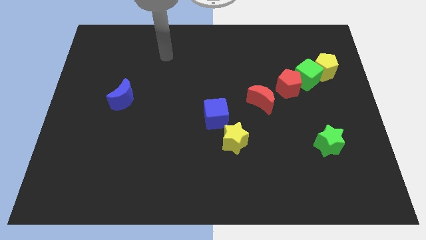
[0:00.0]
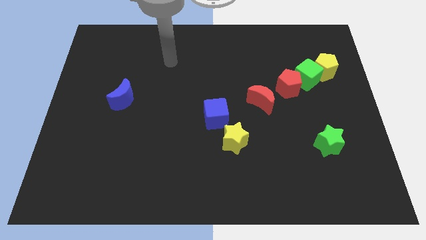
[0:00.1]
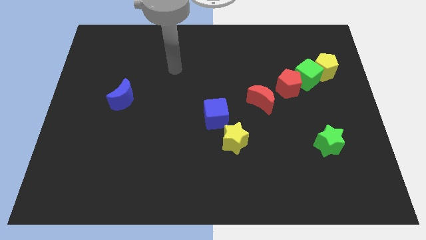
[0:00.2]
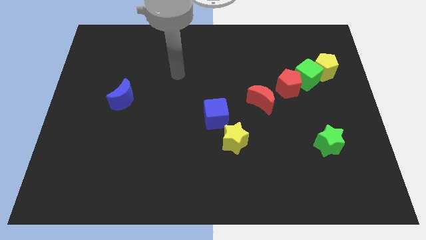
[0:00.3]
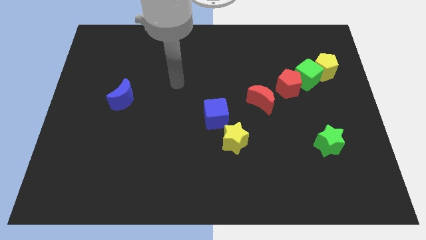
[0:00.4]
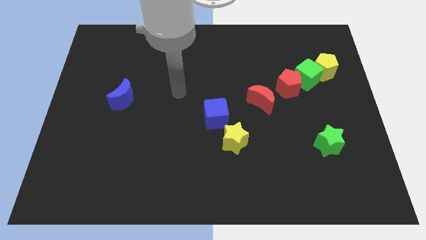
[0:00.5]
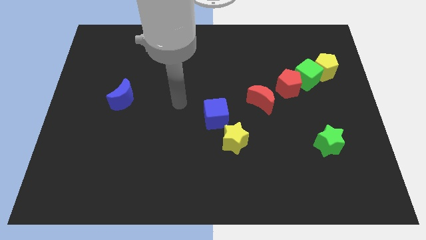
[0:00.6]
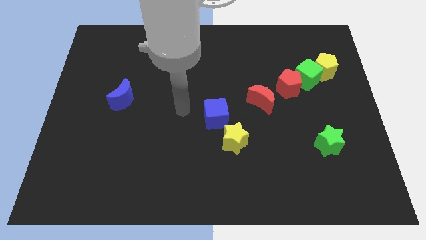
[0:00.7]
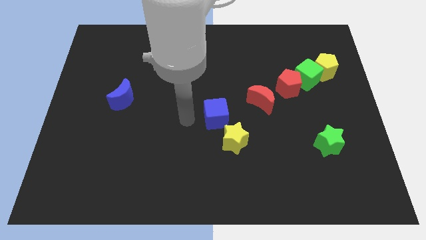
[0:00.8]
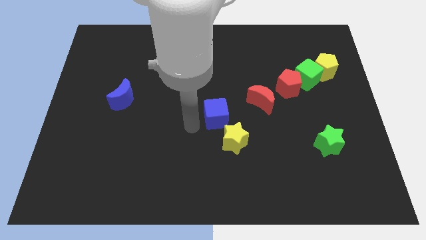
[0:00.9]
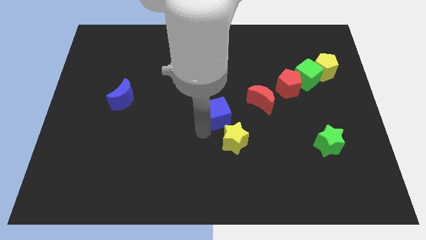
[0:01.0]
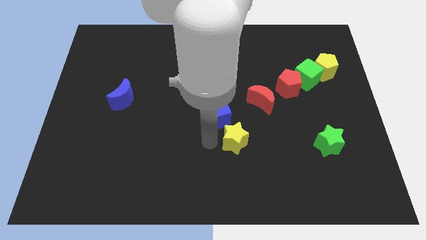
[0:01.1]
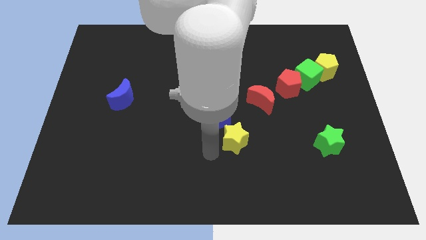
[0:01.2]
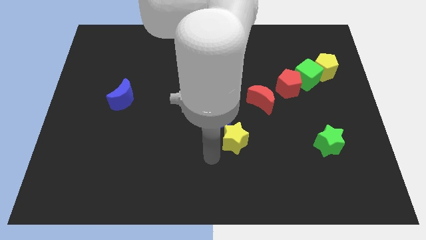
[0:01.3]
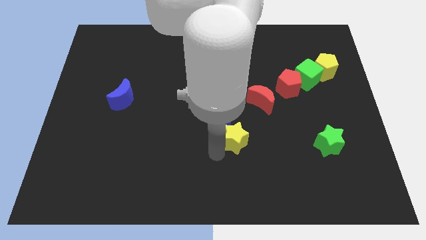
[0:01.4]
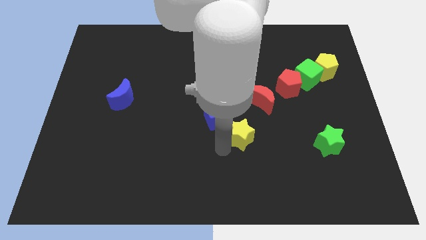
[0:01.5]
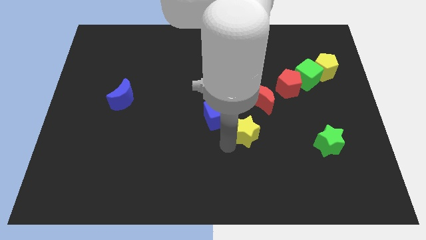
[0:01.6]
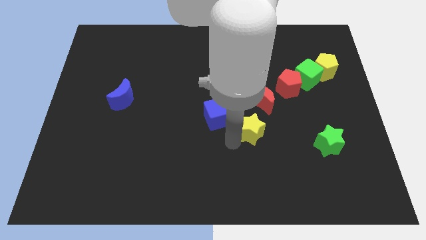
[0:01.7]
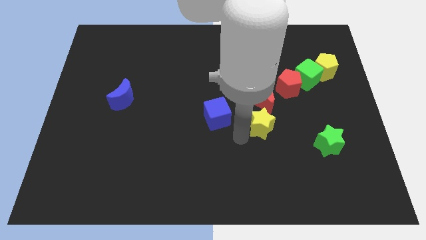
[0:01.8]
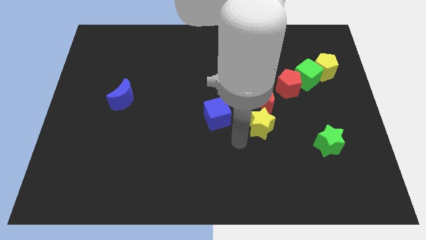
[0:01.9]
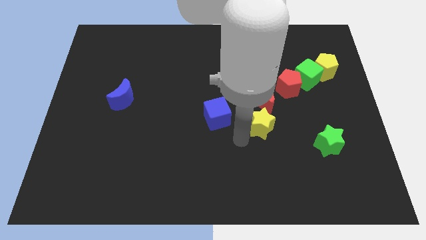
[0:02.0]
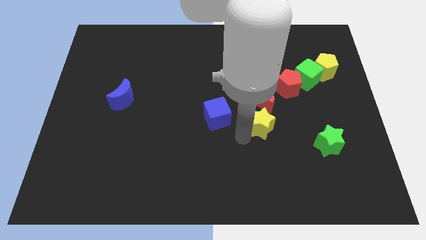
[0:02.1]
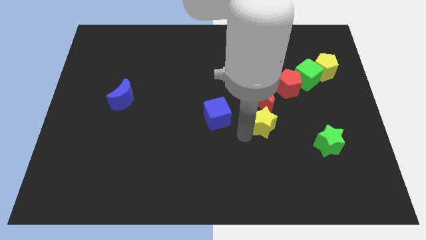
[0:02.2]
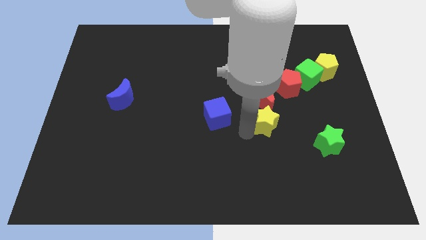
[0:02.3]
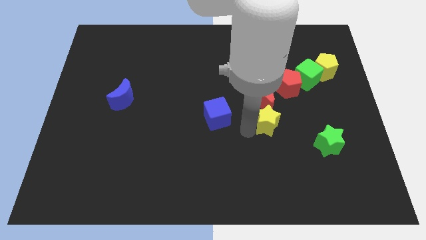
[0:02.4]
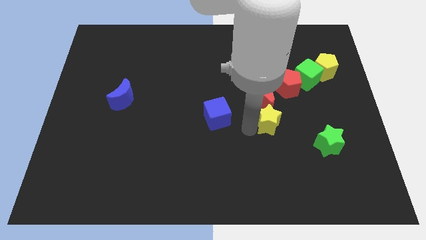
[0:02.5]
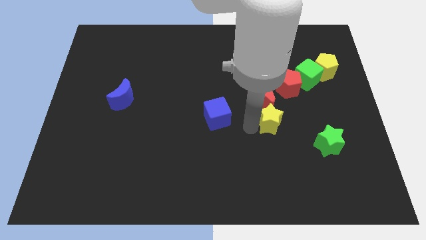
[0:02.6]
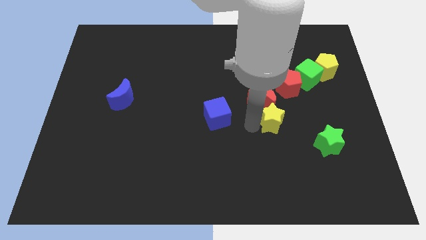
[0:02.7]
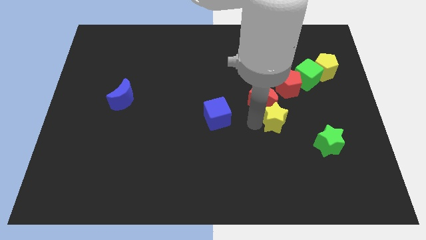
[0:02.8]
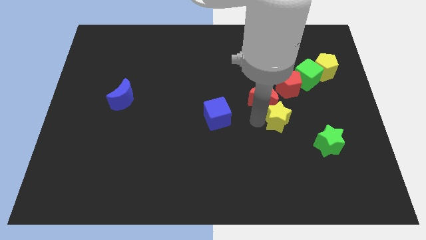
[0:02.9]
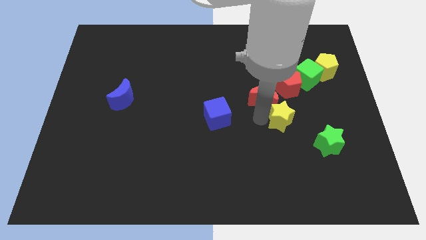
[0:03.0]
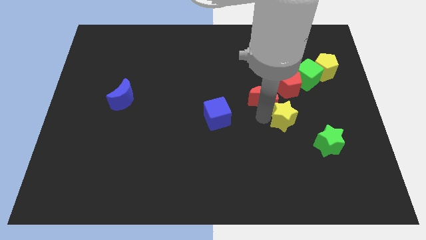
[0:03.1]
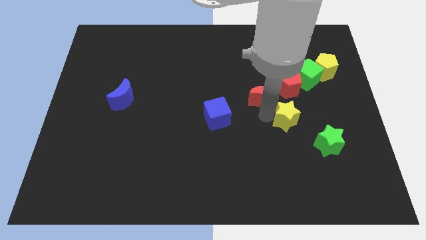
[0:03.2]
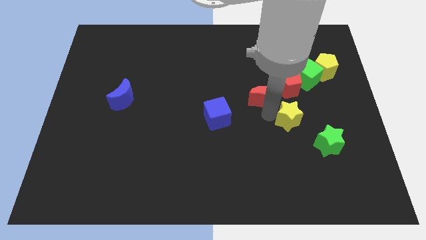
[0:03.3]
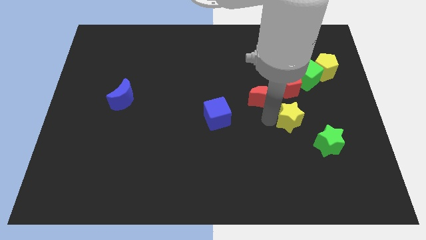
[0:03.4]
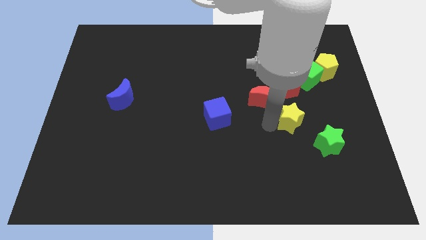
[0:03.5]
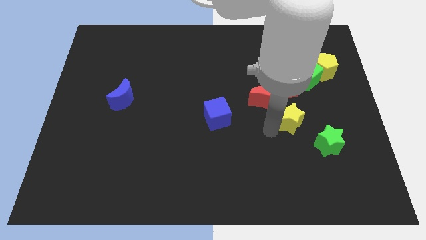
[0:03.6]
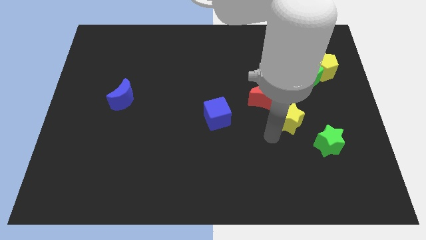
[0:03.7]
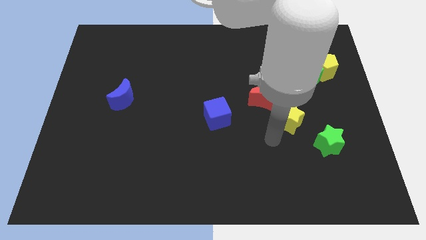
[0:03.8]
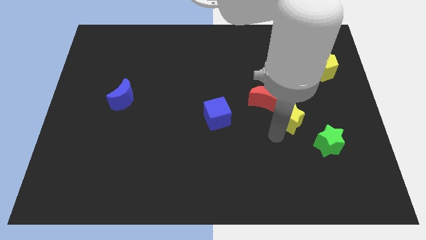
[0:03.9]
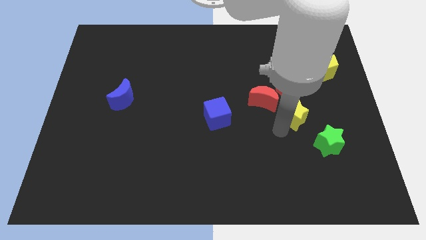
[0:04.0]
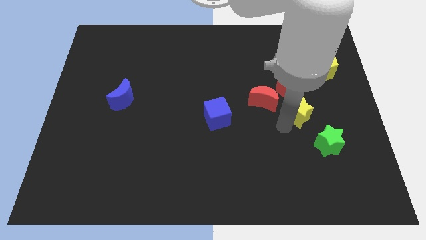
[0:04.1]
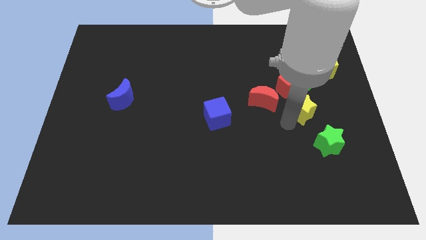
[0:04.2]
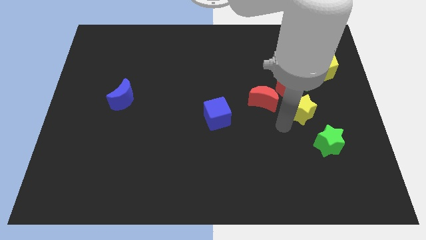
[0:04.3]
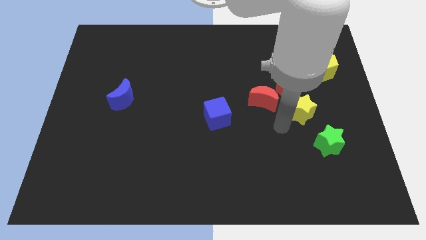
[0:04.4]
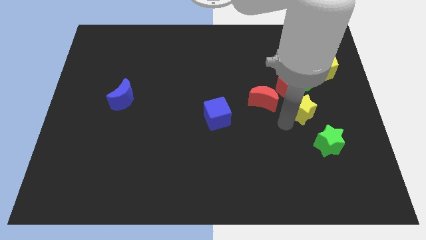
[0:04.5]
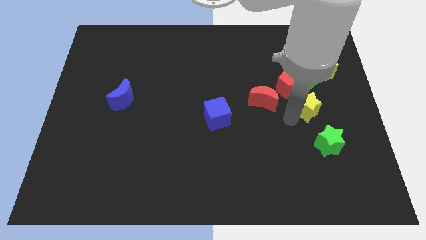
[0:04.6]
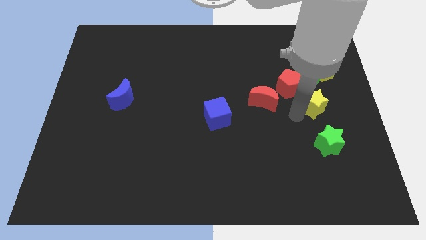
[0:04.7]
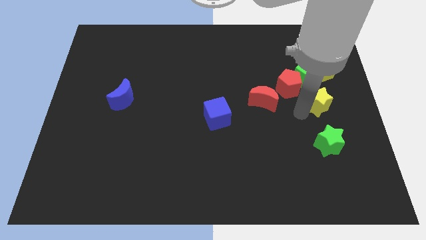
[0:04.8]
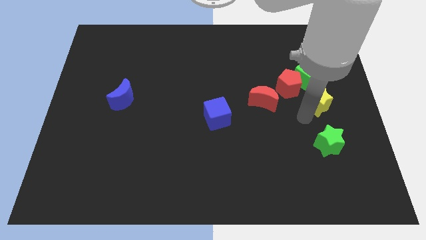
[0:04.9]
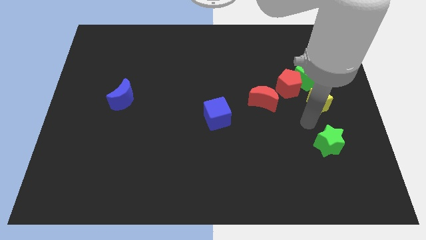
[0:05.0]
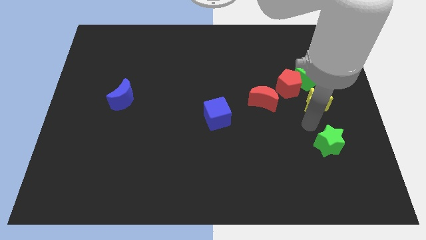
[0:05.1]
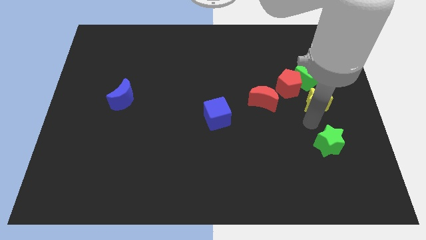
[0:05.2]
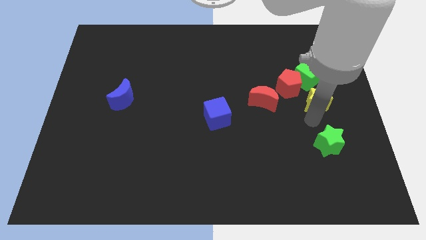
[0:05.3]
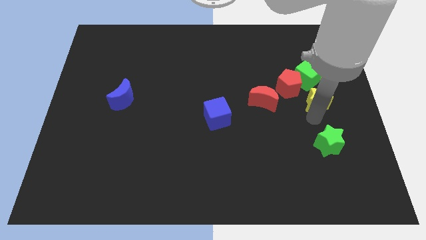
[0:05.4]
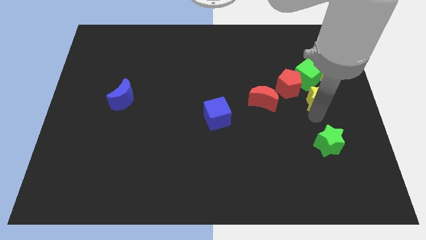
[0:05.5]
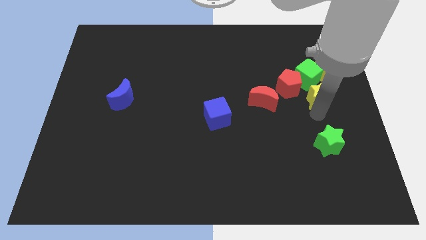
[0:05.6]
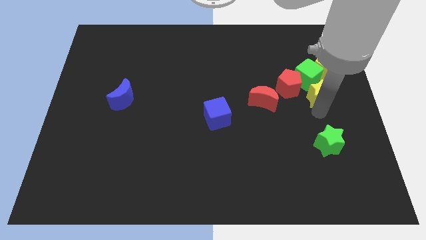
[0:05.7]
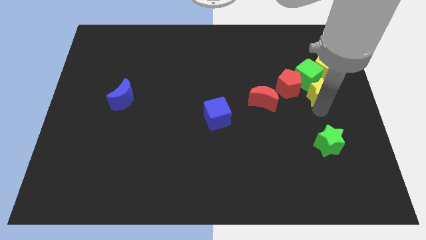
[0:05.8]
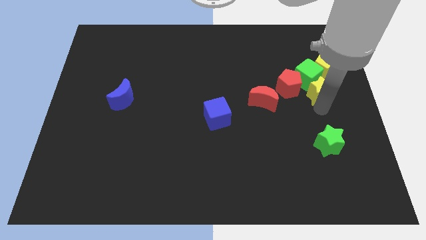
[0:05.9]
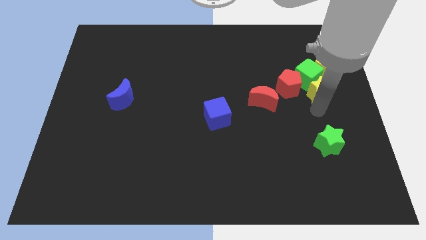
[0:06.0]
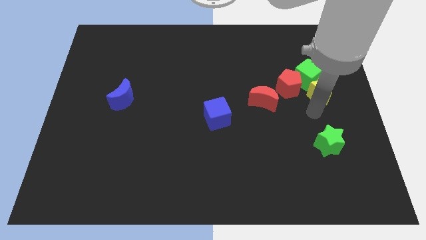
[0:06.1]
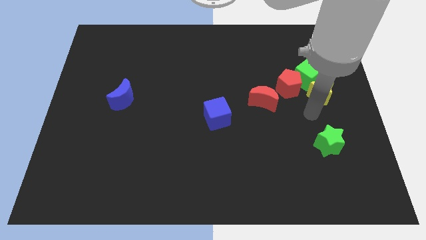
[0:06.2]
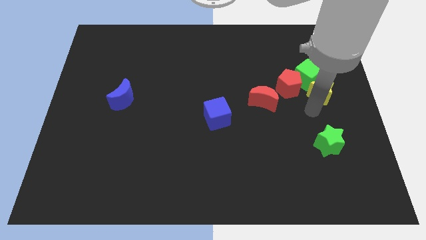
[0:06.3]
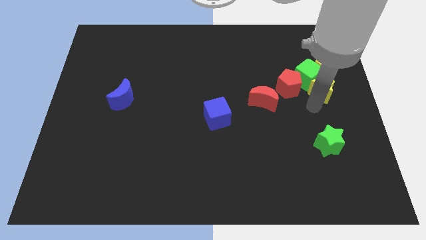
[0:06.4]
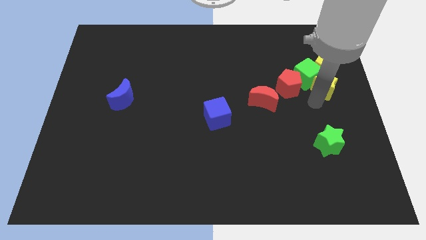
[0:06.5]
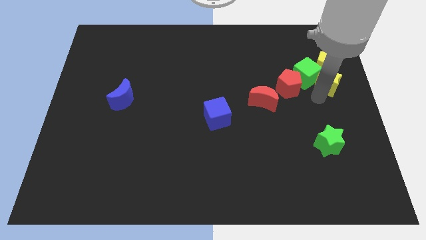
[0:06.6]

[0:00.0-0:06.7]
move the yellow star to the yellow pentagon

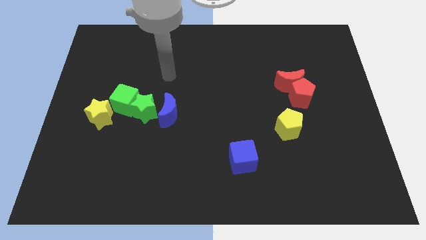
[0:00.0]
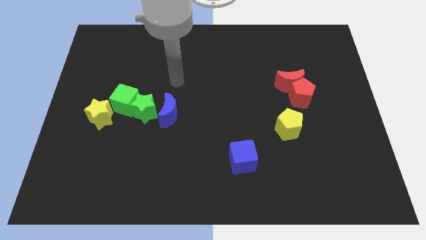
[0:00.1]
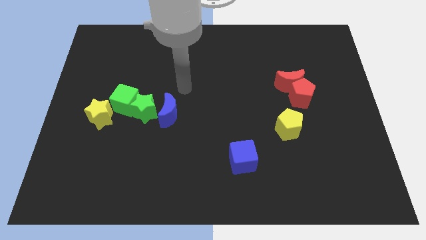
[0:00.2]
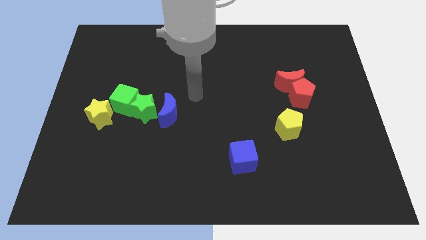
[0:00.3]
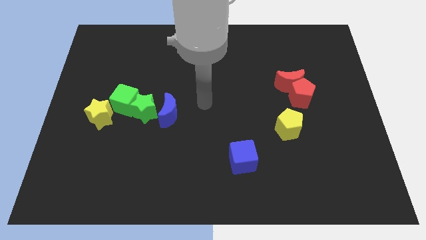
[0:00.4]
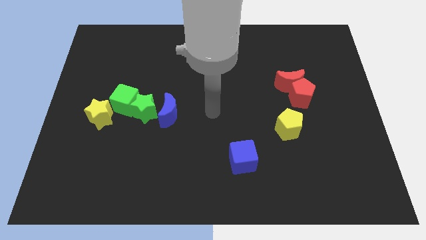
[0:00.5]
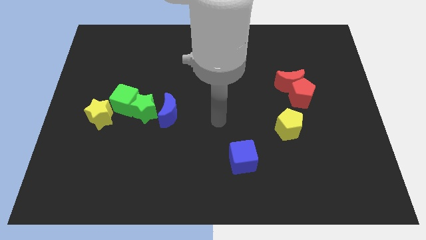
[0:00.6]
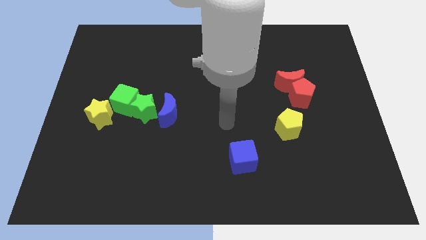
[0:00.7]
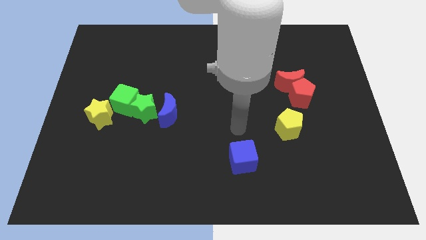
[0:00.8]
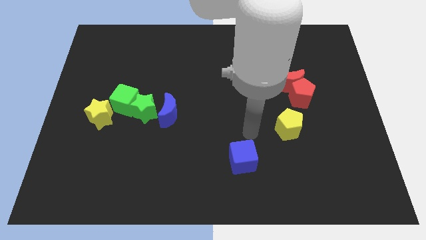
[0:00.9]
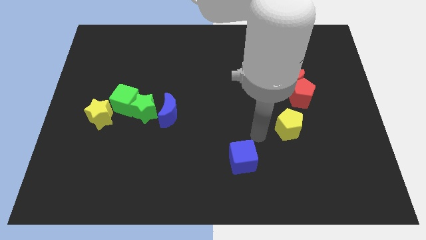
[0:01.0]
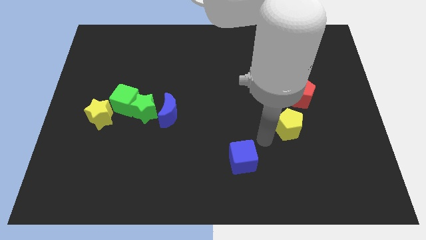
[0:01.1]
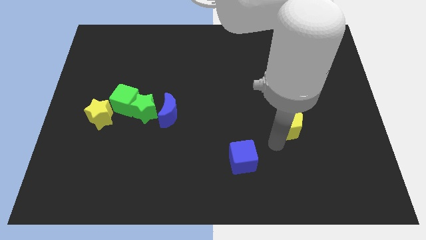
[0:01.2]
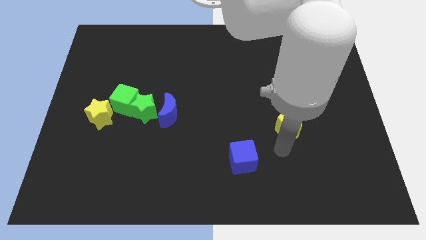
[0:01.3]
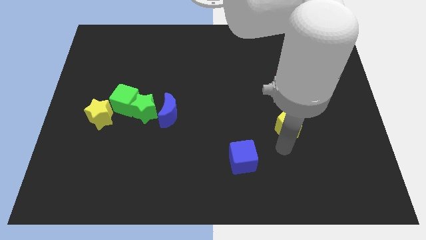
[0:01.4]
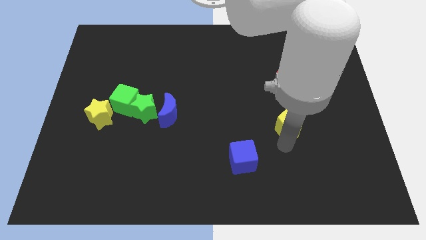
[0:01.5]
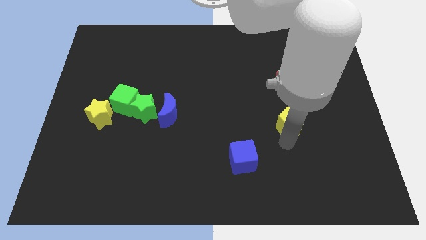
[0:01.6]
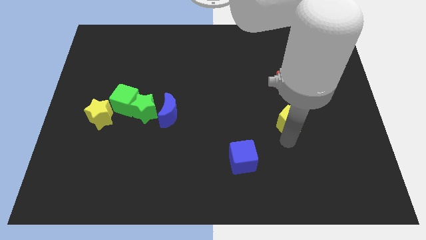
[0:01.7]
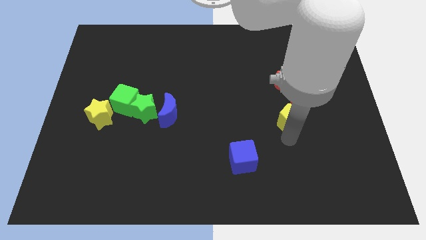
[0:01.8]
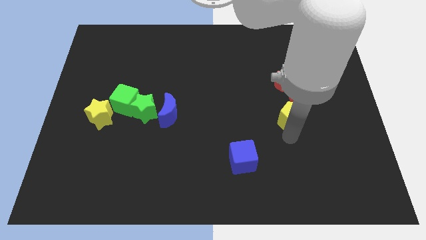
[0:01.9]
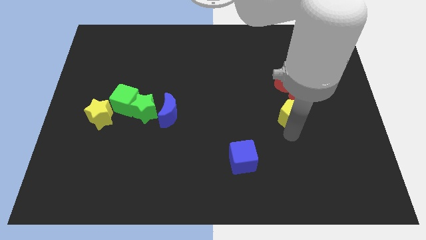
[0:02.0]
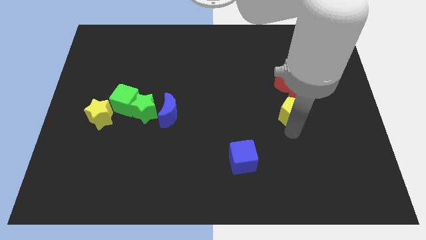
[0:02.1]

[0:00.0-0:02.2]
move the yellow pentagon next to the red pentagon
